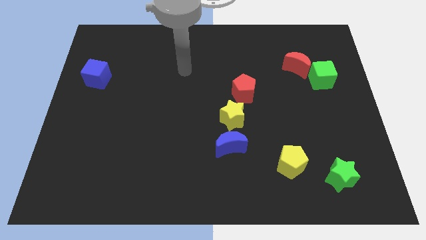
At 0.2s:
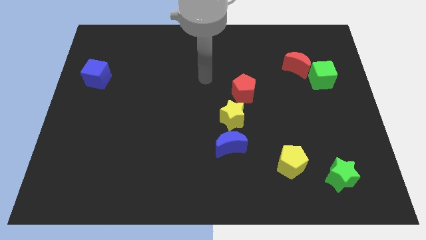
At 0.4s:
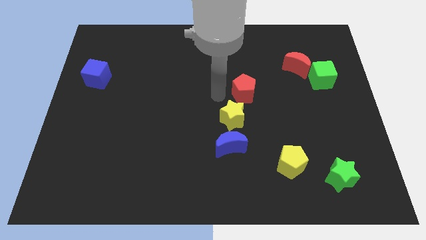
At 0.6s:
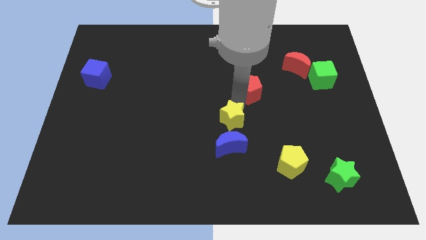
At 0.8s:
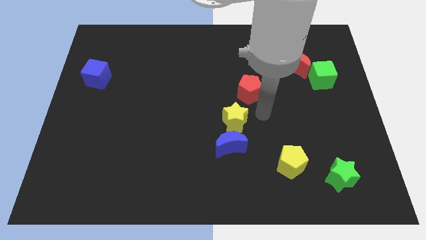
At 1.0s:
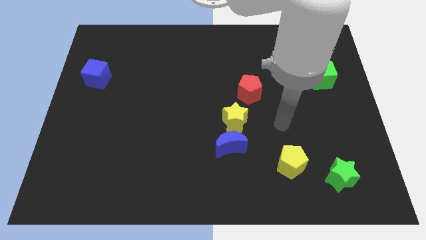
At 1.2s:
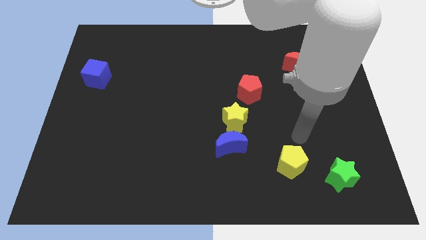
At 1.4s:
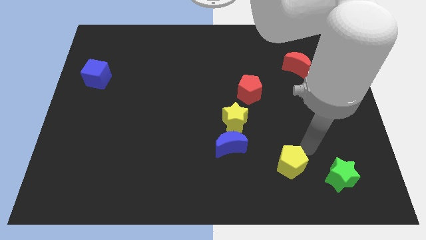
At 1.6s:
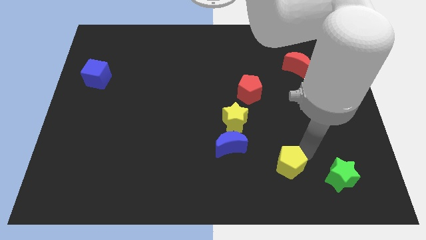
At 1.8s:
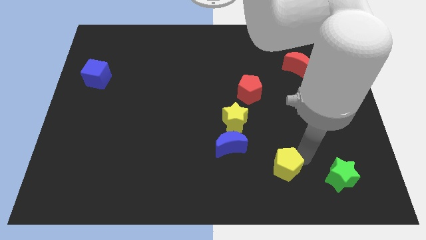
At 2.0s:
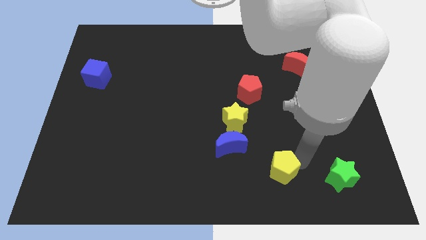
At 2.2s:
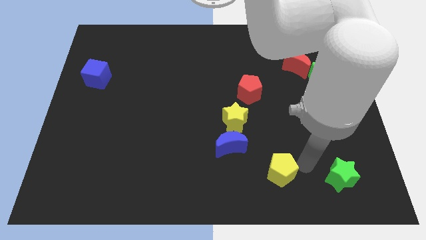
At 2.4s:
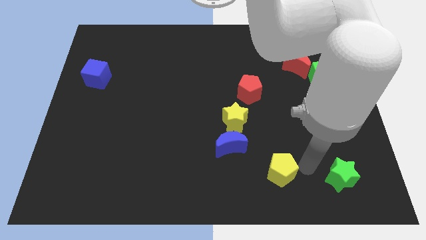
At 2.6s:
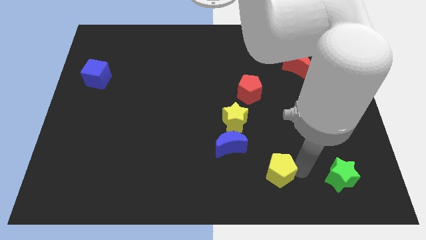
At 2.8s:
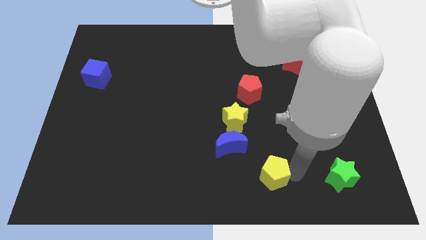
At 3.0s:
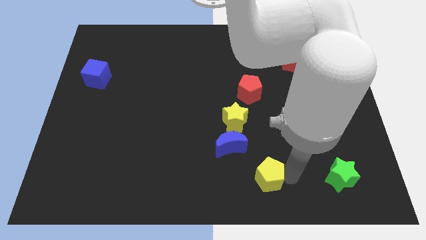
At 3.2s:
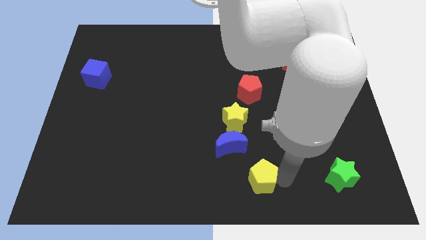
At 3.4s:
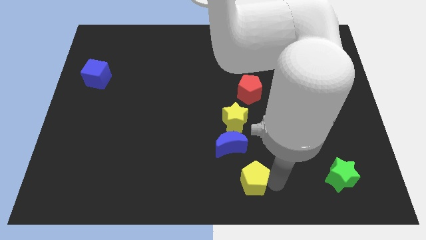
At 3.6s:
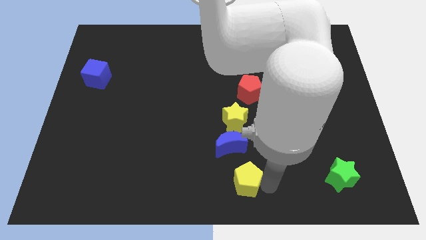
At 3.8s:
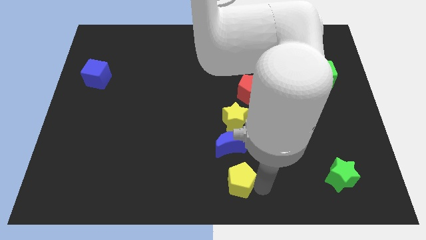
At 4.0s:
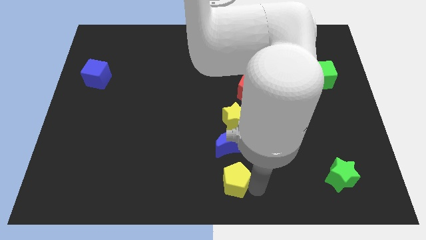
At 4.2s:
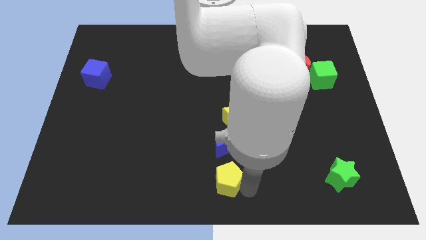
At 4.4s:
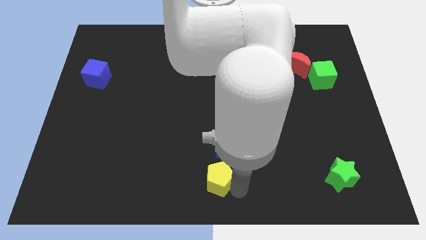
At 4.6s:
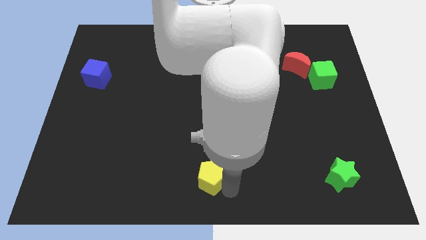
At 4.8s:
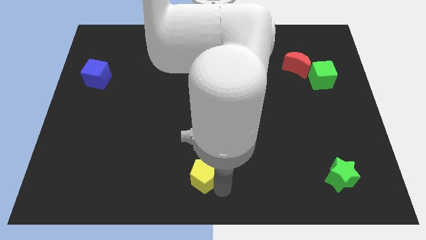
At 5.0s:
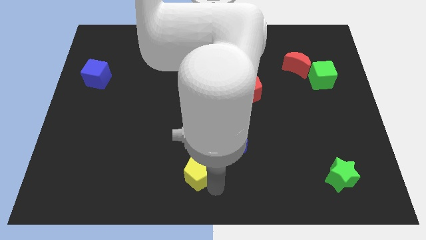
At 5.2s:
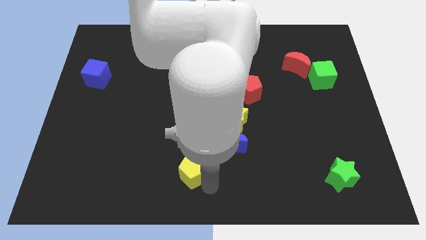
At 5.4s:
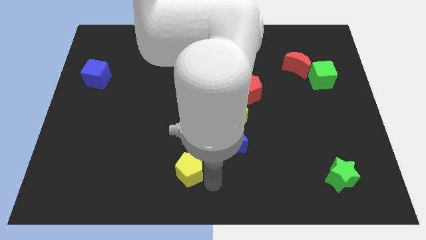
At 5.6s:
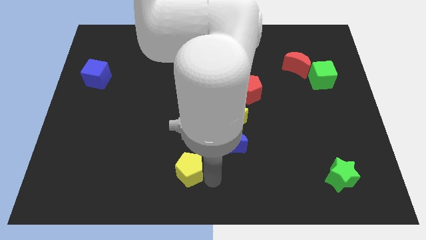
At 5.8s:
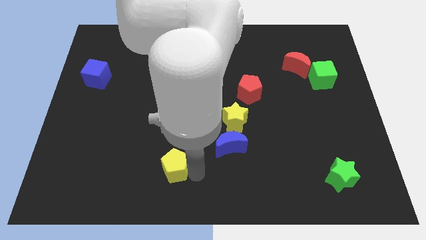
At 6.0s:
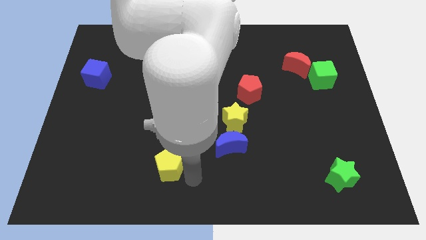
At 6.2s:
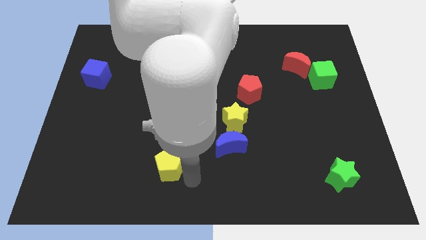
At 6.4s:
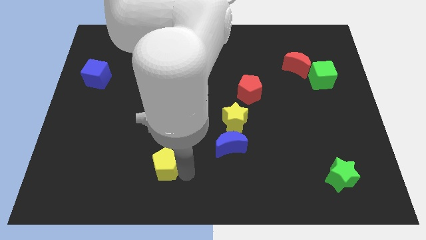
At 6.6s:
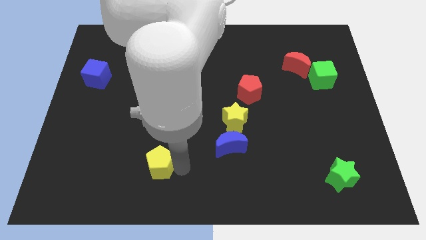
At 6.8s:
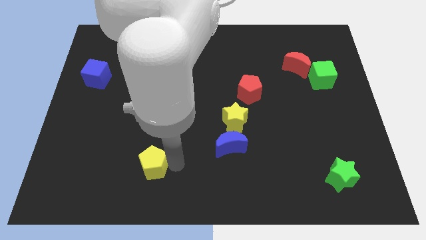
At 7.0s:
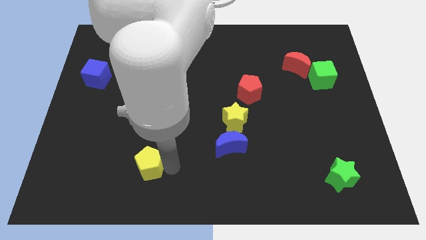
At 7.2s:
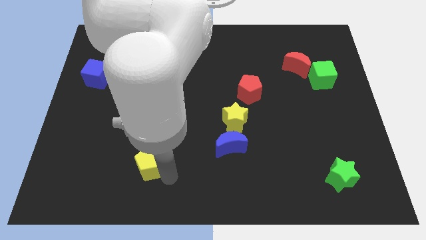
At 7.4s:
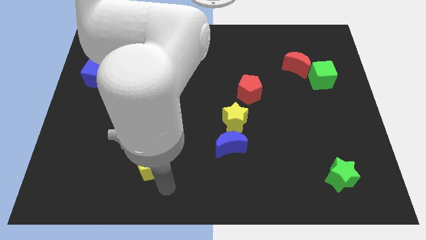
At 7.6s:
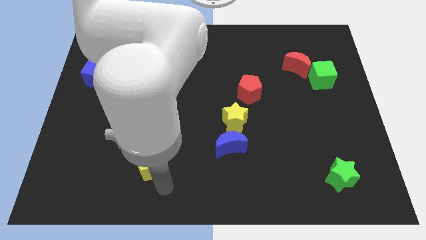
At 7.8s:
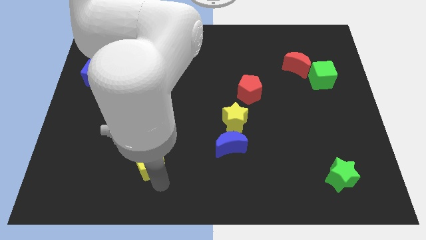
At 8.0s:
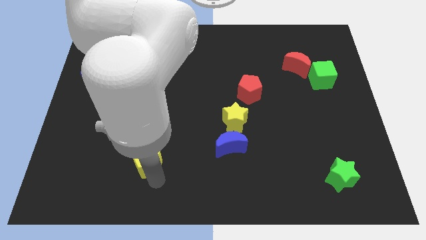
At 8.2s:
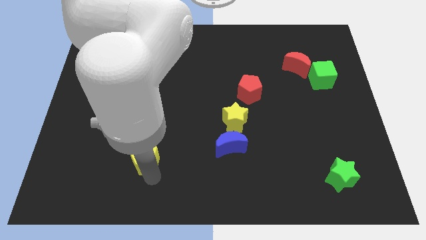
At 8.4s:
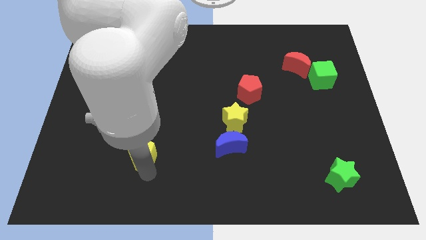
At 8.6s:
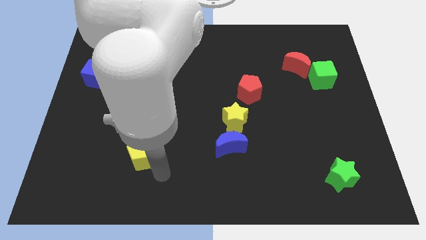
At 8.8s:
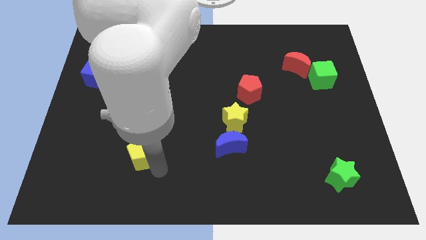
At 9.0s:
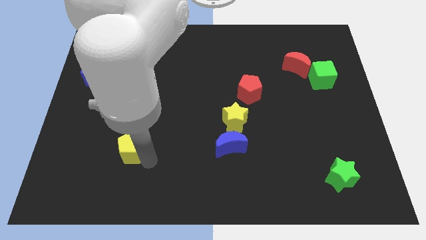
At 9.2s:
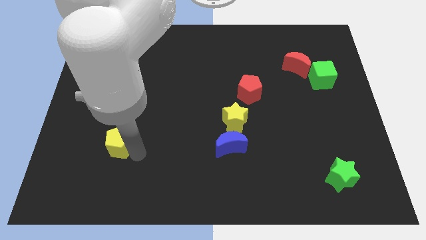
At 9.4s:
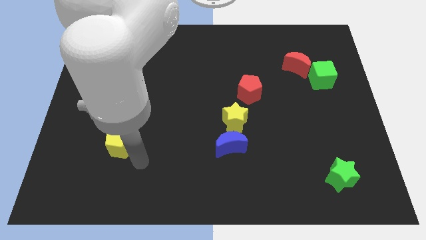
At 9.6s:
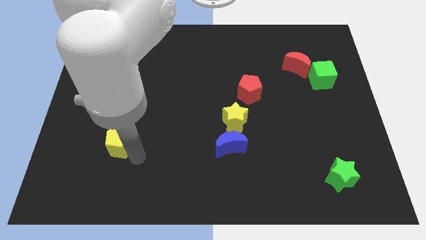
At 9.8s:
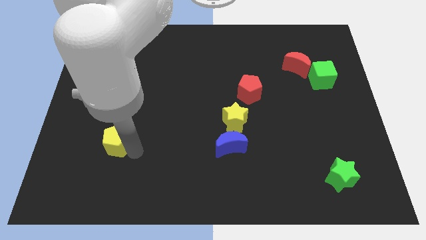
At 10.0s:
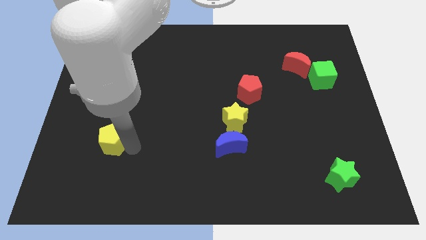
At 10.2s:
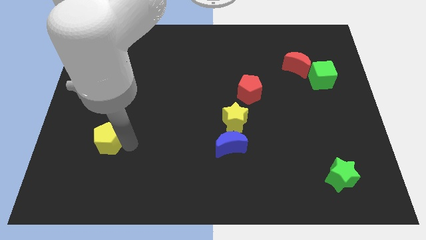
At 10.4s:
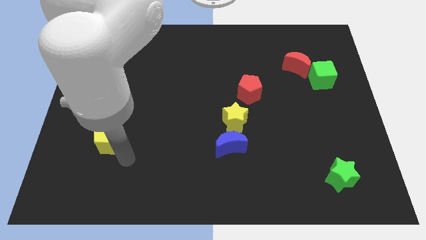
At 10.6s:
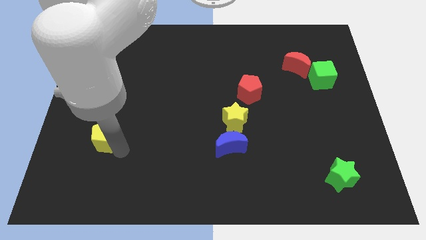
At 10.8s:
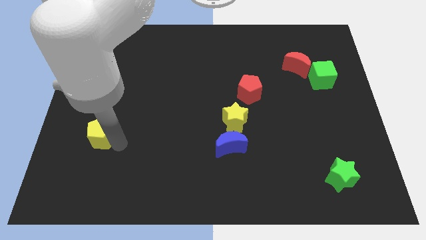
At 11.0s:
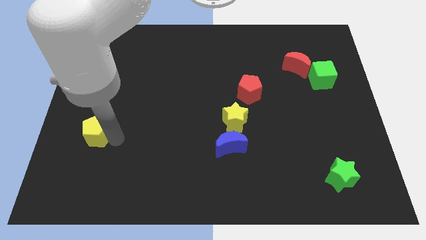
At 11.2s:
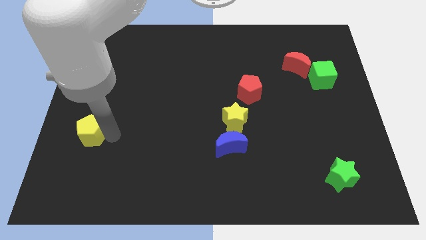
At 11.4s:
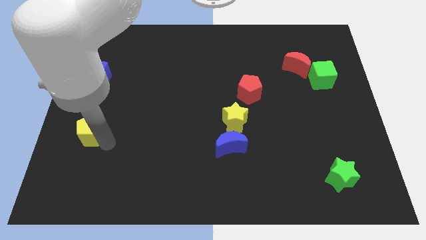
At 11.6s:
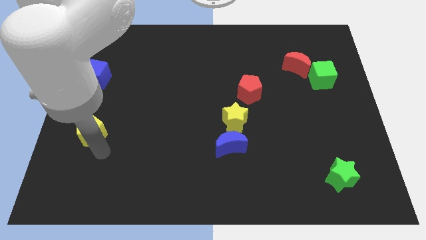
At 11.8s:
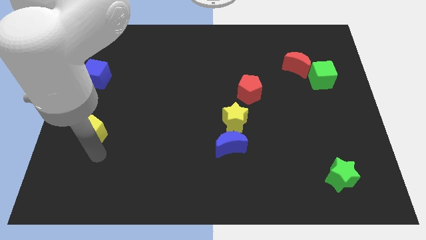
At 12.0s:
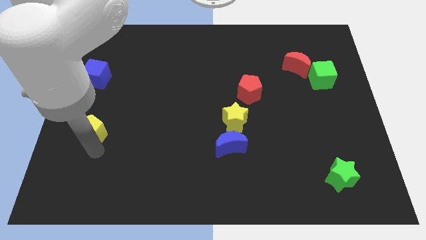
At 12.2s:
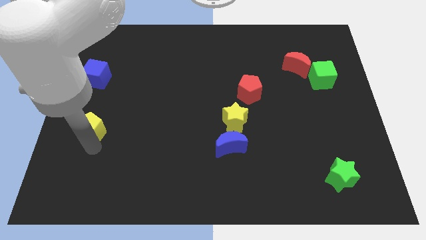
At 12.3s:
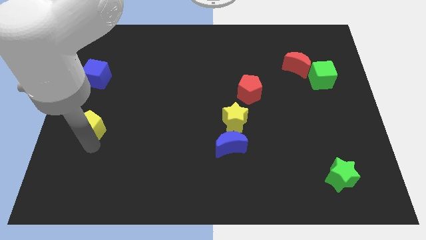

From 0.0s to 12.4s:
slide the yellow pentagon to the left side of the board

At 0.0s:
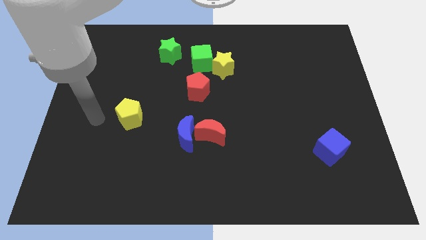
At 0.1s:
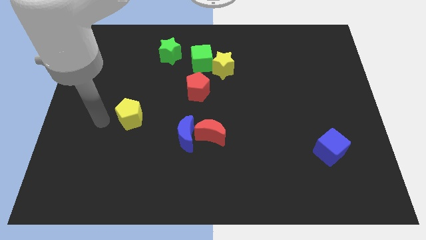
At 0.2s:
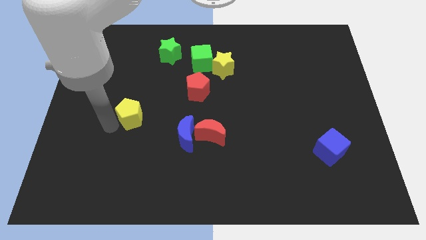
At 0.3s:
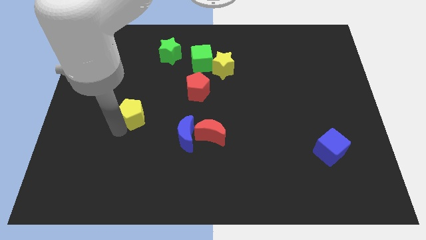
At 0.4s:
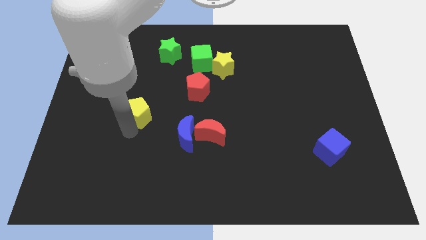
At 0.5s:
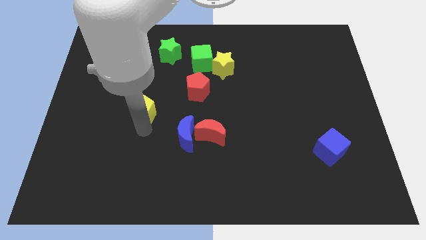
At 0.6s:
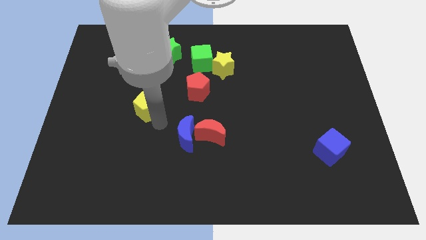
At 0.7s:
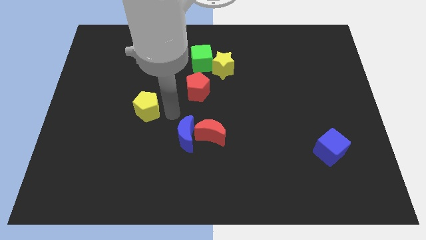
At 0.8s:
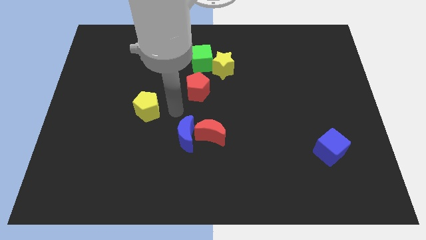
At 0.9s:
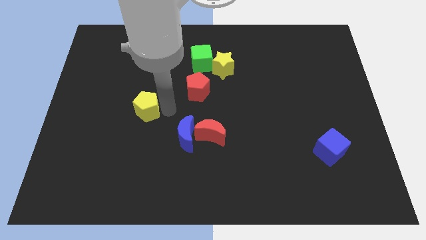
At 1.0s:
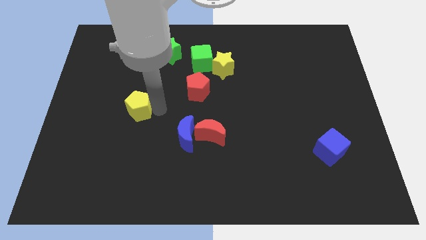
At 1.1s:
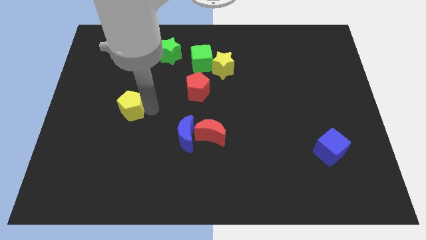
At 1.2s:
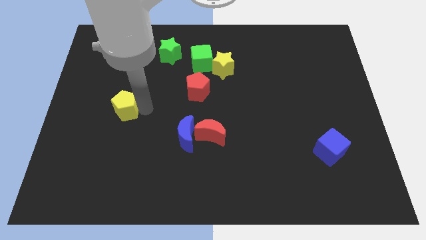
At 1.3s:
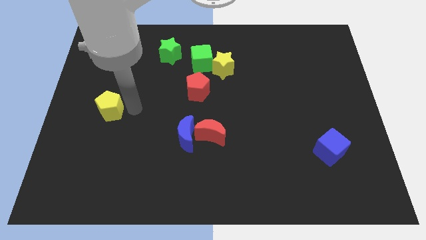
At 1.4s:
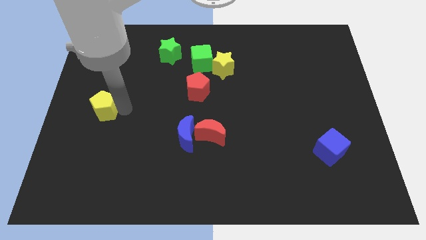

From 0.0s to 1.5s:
move the yellow pentagon to the left side of the board
